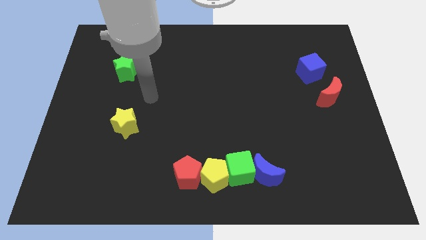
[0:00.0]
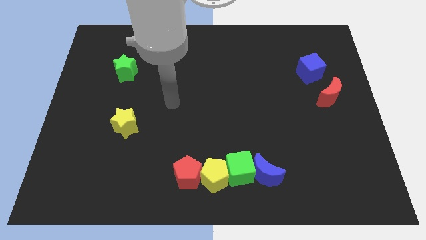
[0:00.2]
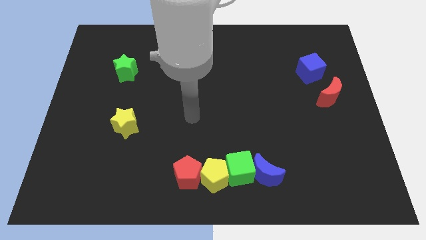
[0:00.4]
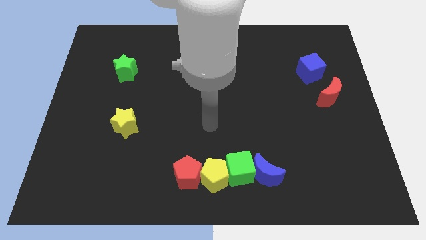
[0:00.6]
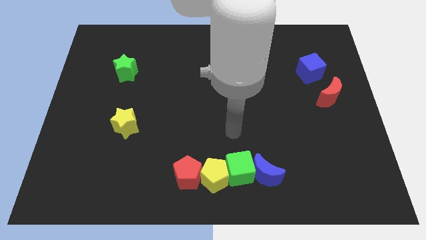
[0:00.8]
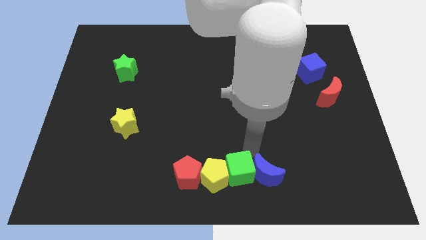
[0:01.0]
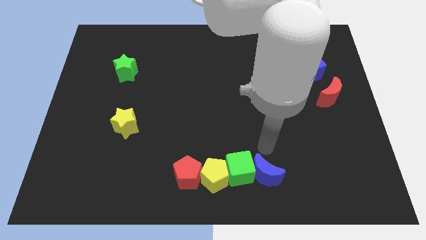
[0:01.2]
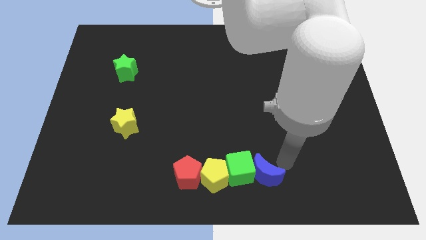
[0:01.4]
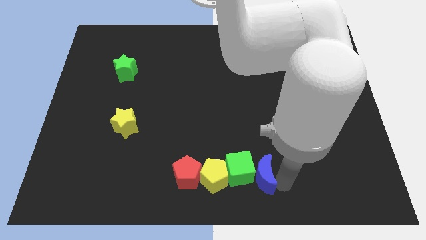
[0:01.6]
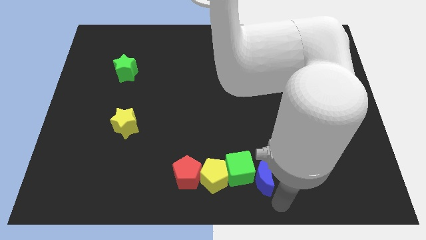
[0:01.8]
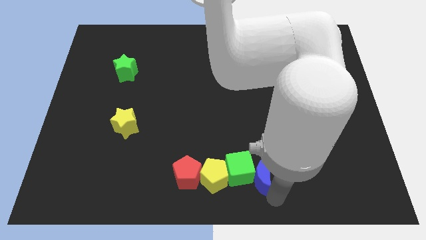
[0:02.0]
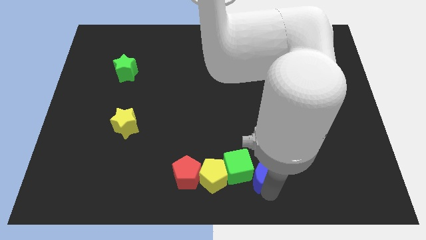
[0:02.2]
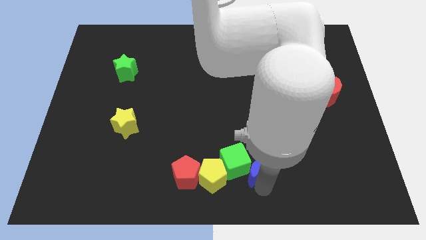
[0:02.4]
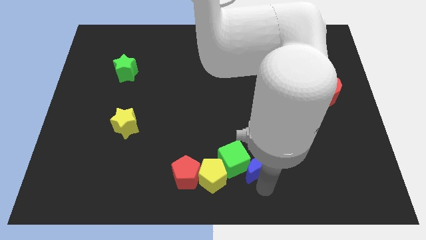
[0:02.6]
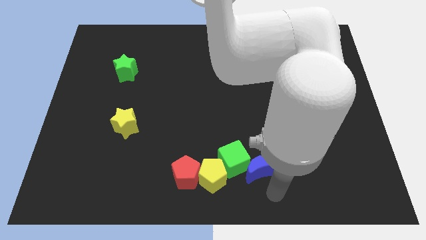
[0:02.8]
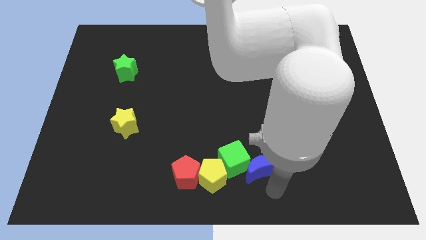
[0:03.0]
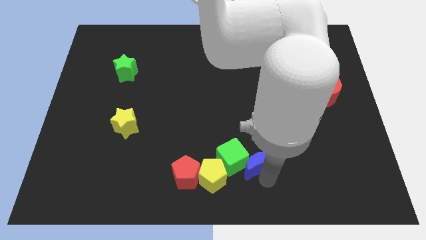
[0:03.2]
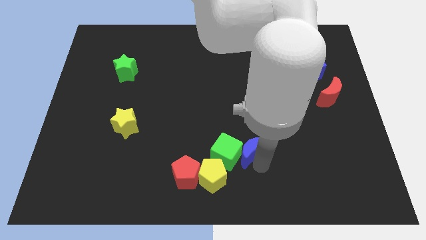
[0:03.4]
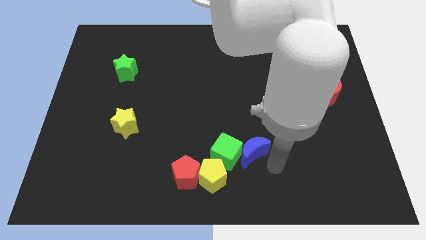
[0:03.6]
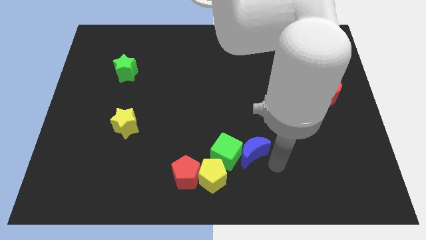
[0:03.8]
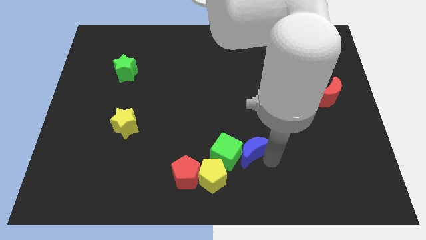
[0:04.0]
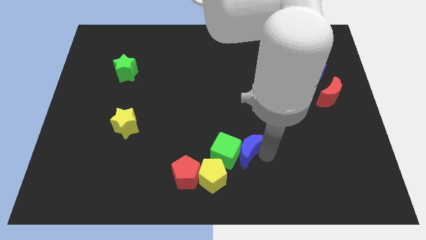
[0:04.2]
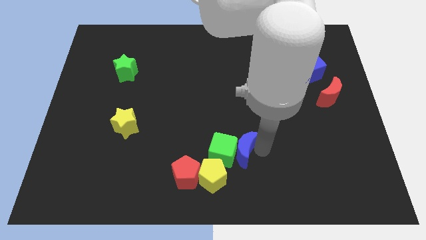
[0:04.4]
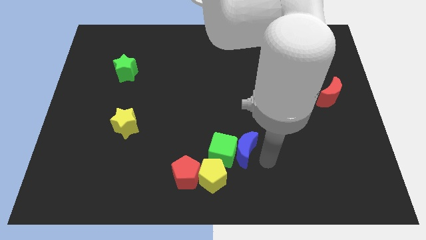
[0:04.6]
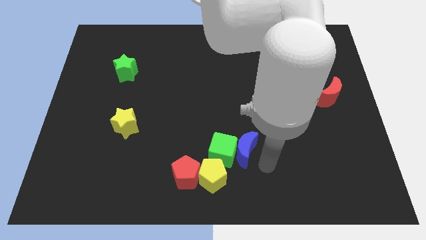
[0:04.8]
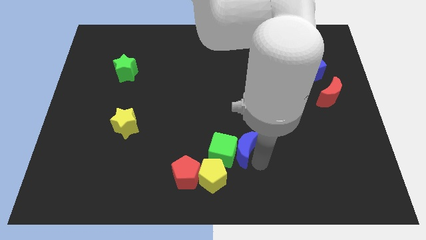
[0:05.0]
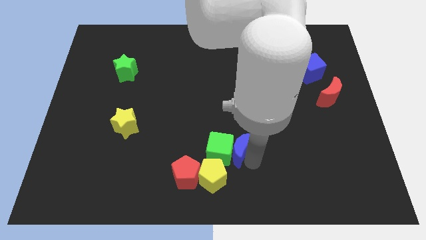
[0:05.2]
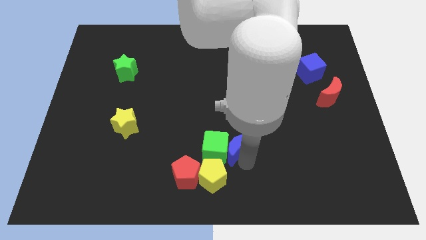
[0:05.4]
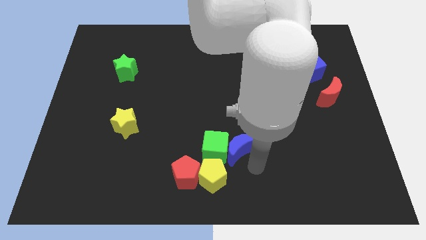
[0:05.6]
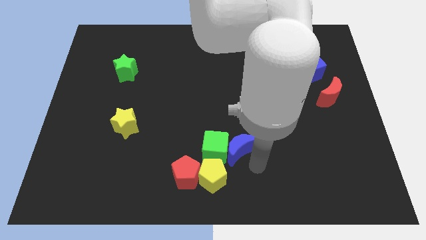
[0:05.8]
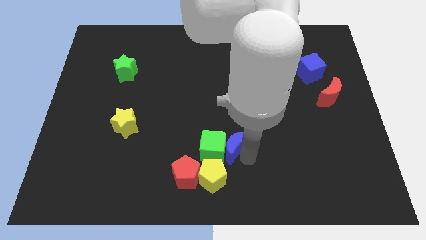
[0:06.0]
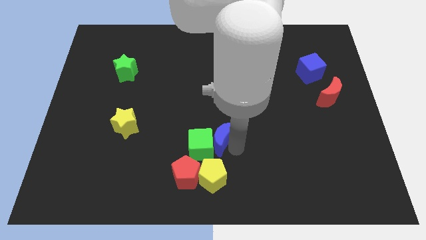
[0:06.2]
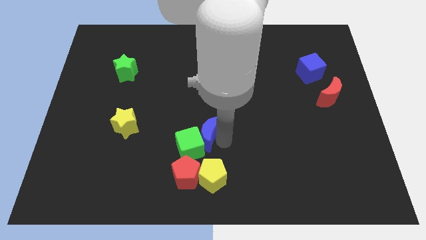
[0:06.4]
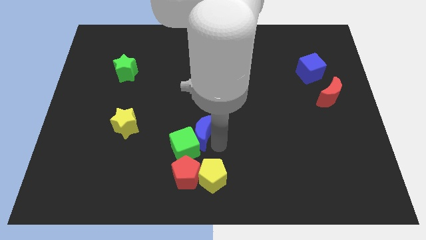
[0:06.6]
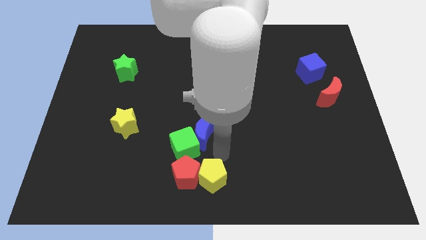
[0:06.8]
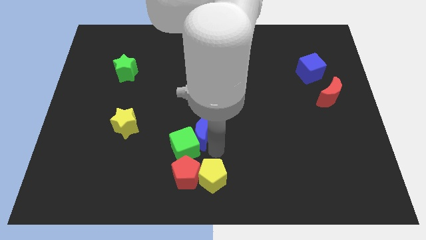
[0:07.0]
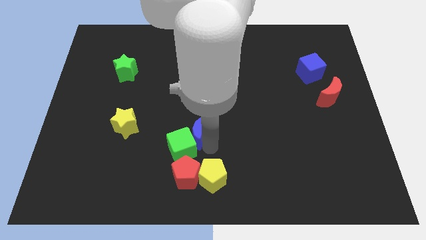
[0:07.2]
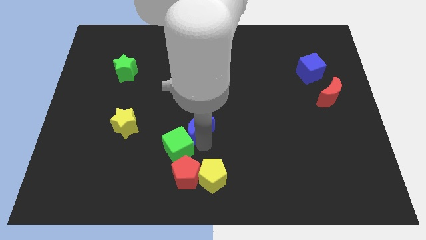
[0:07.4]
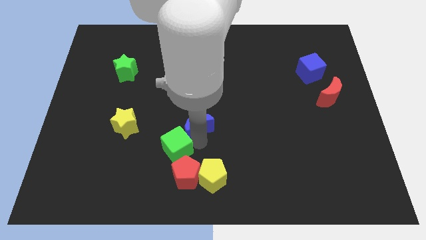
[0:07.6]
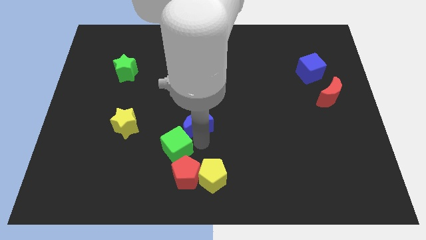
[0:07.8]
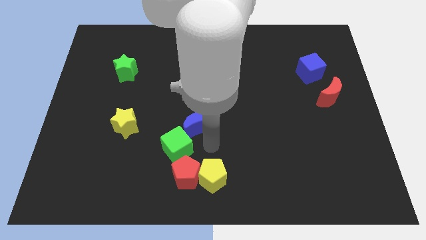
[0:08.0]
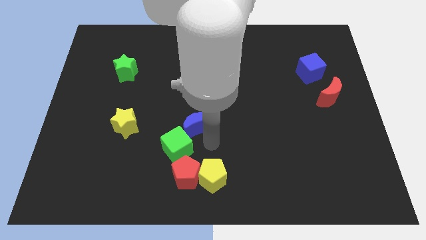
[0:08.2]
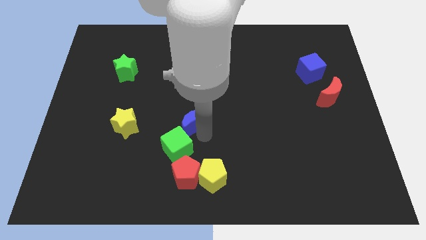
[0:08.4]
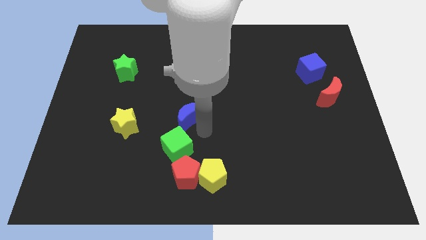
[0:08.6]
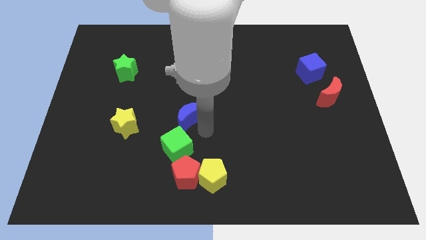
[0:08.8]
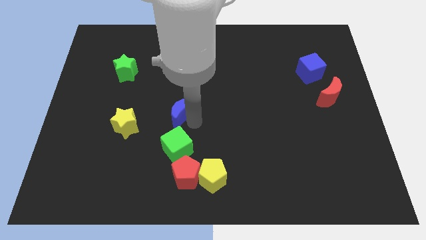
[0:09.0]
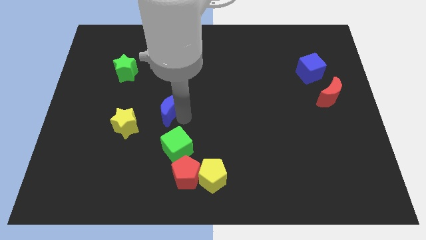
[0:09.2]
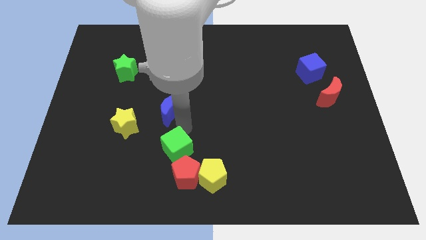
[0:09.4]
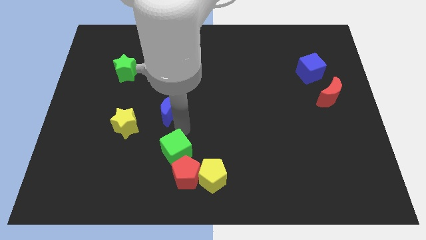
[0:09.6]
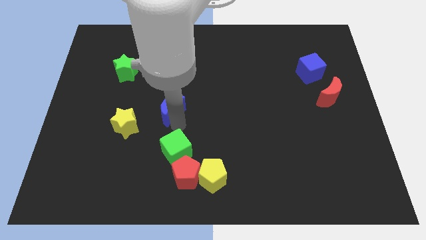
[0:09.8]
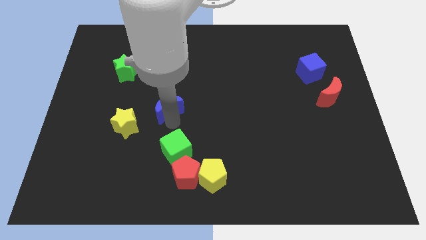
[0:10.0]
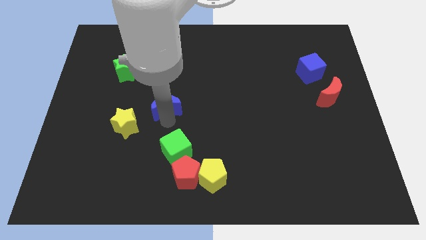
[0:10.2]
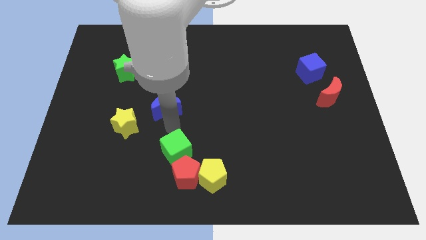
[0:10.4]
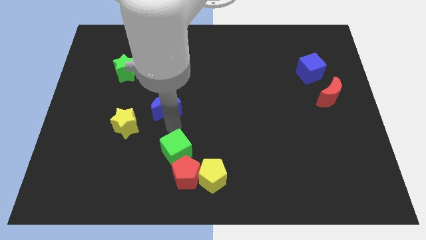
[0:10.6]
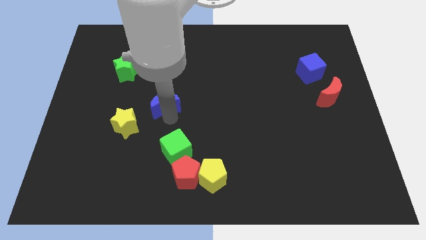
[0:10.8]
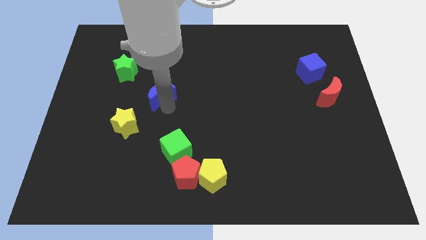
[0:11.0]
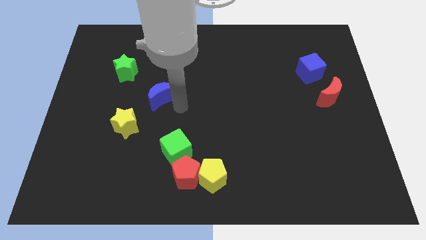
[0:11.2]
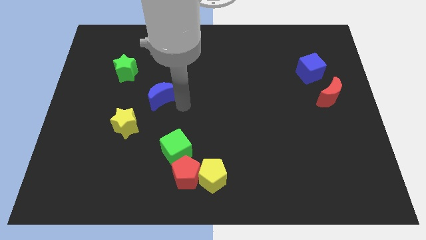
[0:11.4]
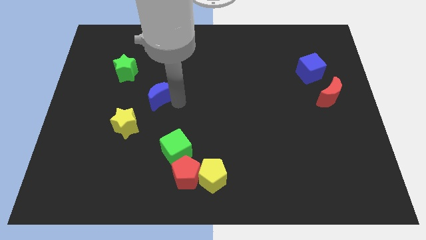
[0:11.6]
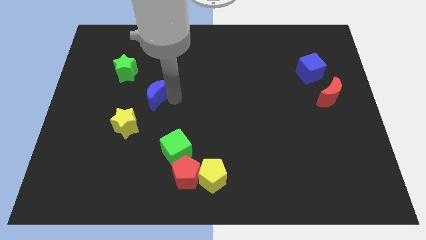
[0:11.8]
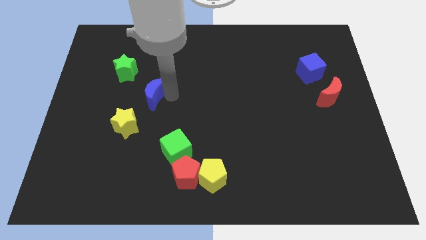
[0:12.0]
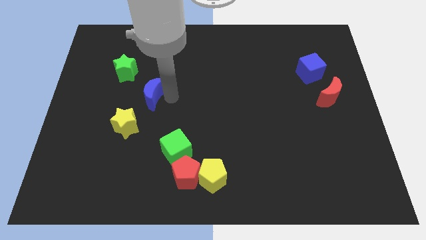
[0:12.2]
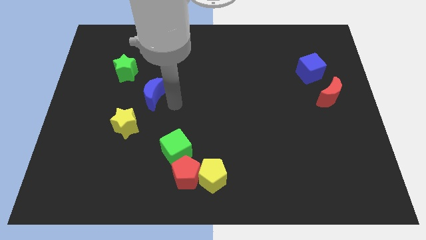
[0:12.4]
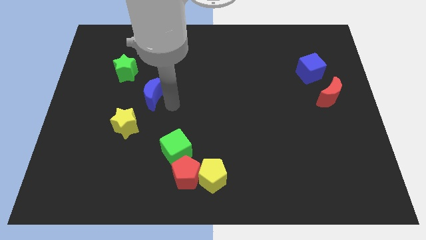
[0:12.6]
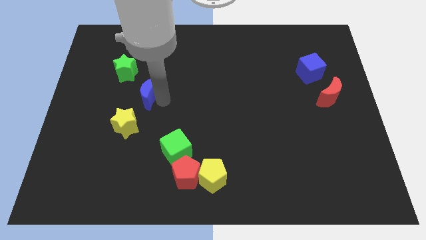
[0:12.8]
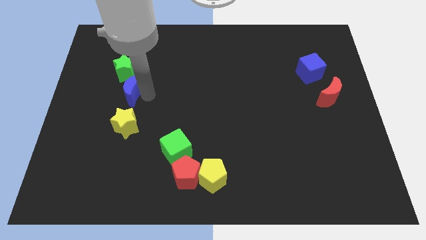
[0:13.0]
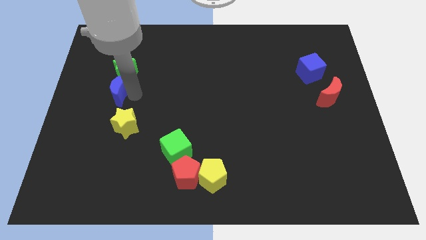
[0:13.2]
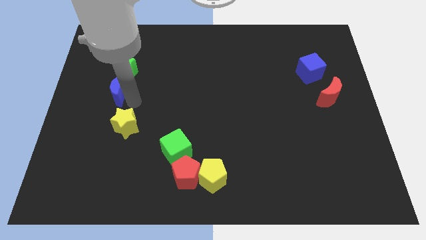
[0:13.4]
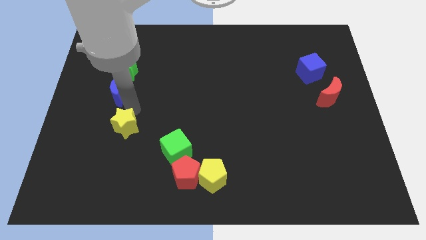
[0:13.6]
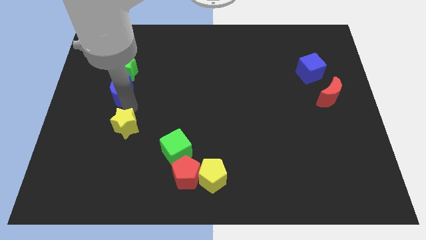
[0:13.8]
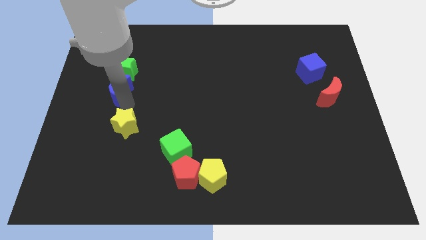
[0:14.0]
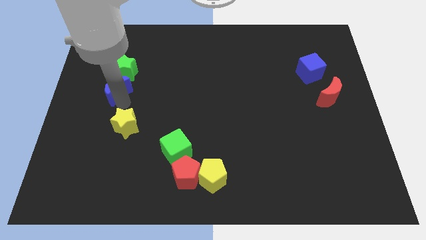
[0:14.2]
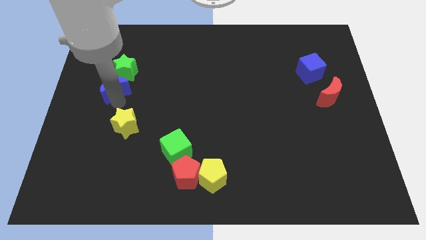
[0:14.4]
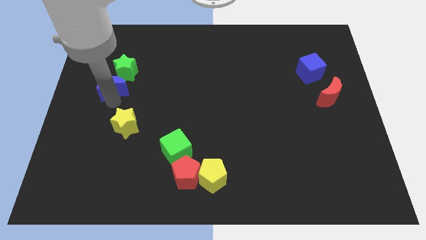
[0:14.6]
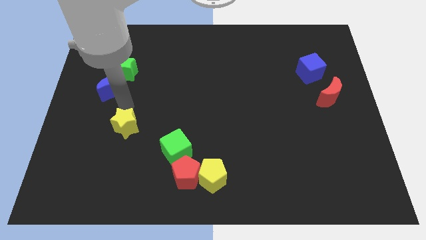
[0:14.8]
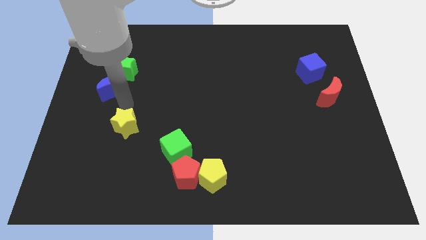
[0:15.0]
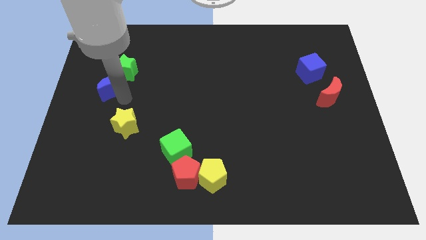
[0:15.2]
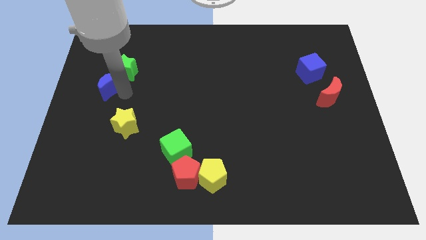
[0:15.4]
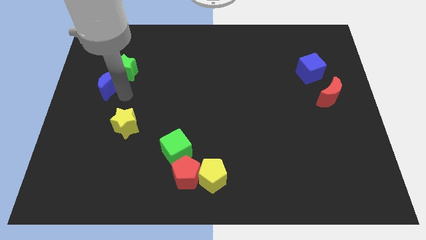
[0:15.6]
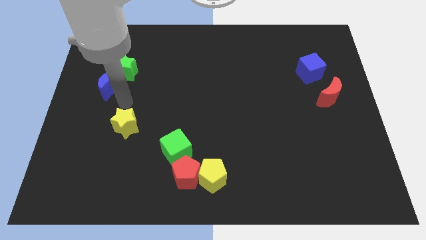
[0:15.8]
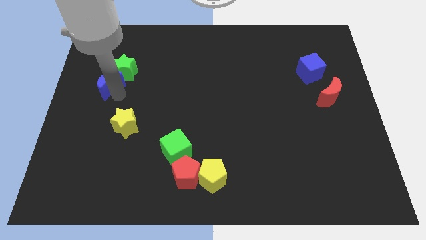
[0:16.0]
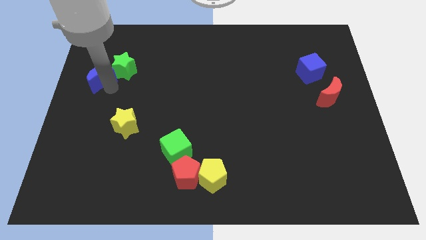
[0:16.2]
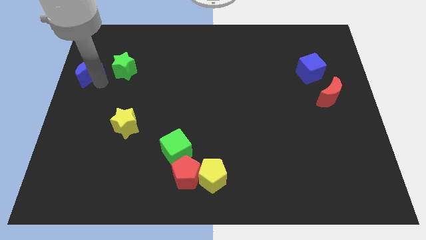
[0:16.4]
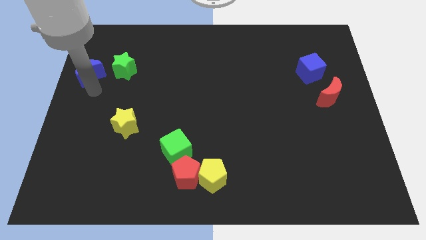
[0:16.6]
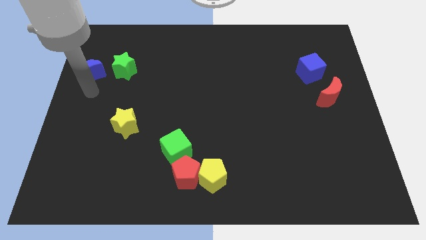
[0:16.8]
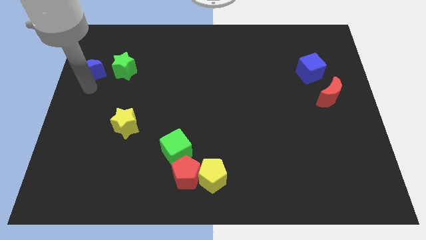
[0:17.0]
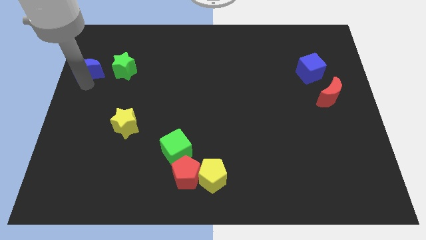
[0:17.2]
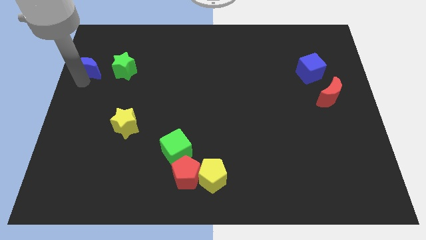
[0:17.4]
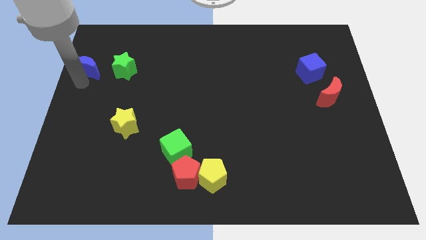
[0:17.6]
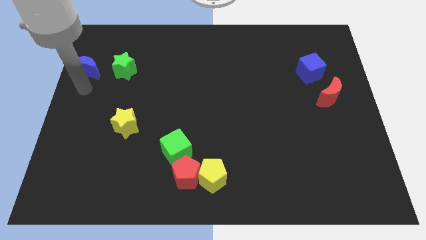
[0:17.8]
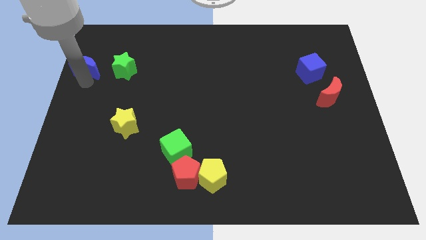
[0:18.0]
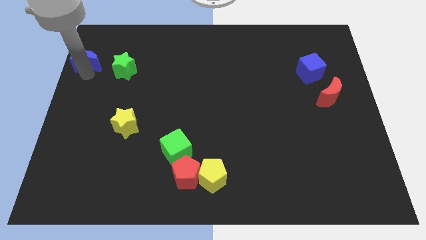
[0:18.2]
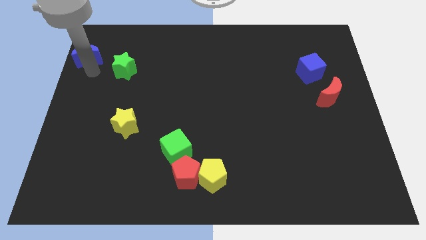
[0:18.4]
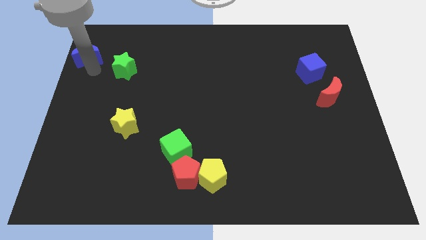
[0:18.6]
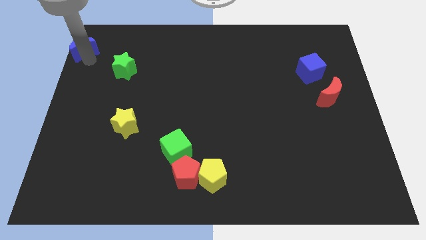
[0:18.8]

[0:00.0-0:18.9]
push the blue moon to the top left of the board
